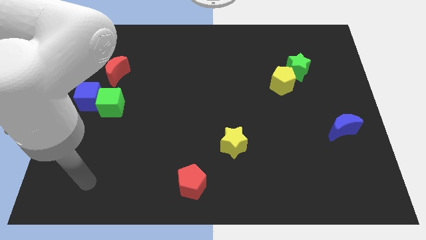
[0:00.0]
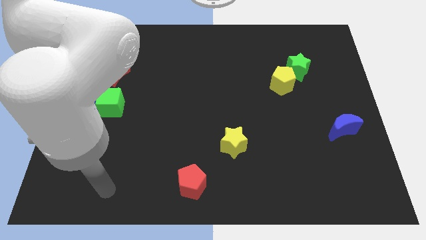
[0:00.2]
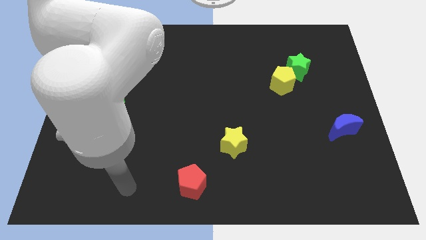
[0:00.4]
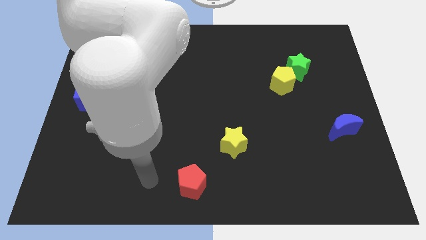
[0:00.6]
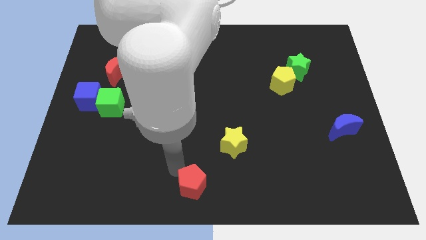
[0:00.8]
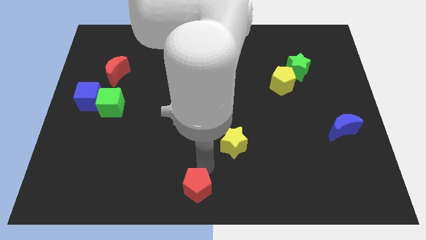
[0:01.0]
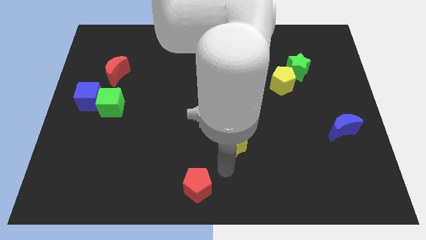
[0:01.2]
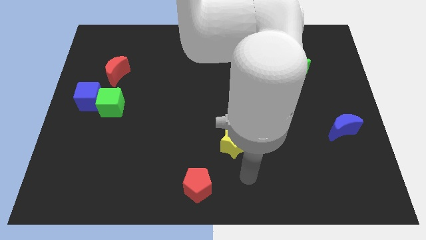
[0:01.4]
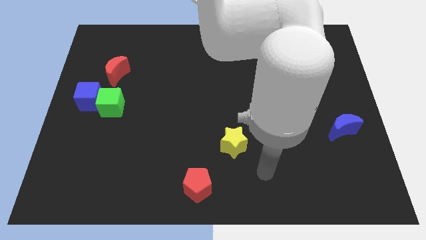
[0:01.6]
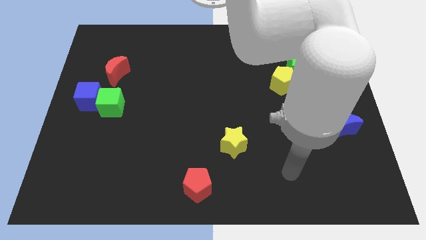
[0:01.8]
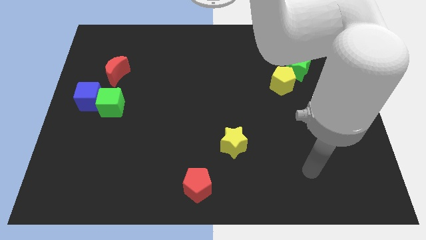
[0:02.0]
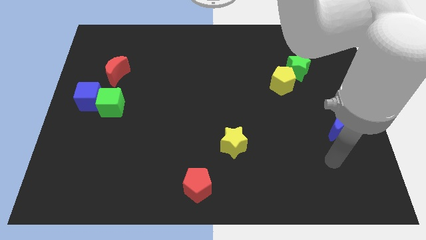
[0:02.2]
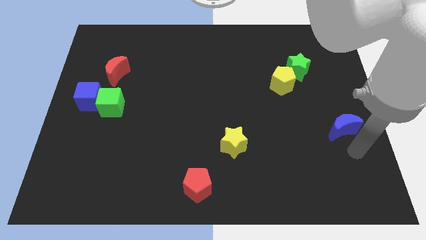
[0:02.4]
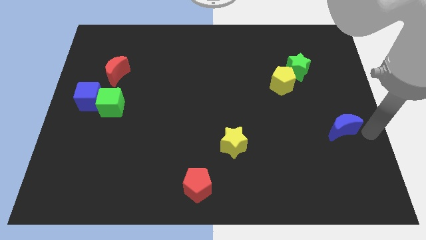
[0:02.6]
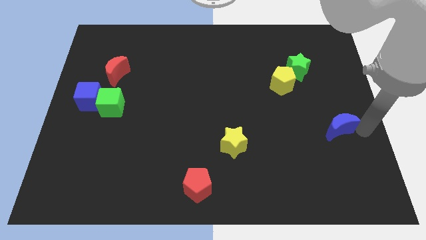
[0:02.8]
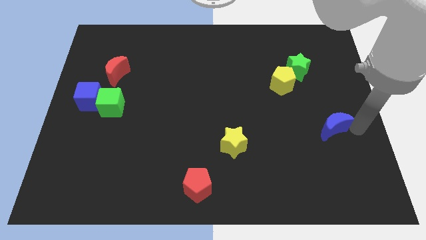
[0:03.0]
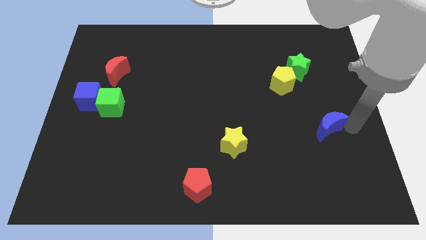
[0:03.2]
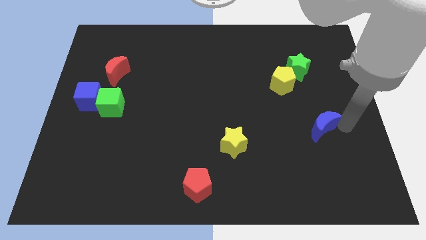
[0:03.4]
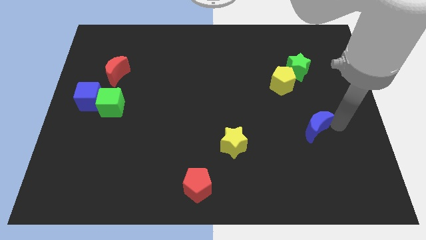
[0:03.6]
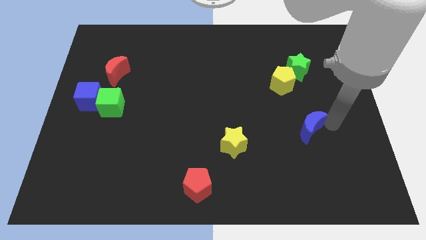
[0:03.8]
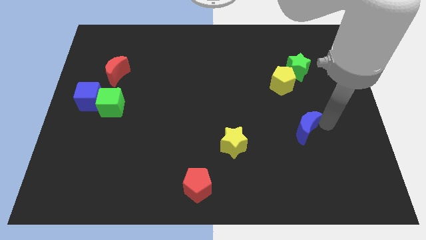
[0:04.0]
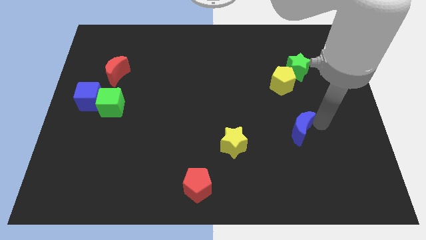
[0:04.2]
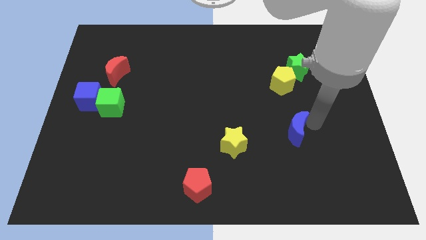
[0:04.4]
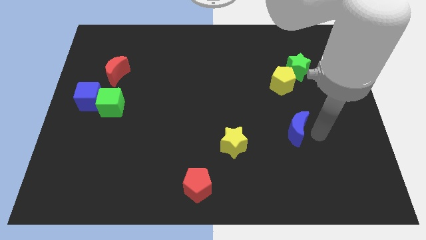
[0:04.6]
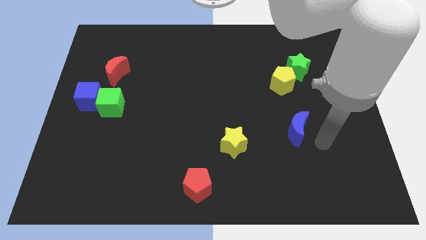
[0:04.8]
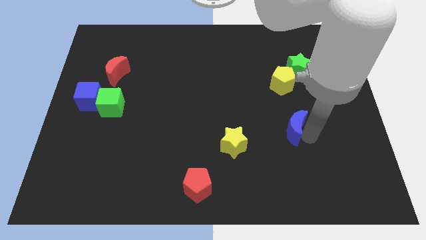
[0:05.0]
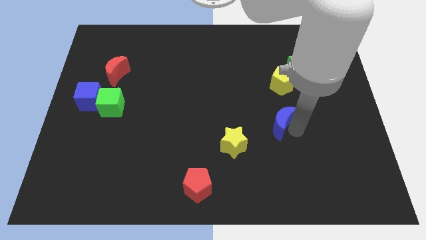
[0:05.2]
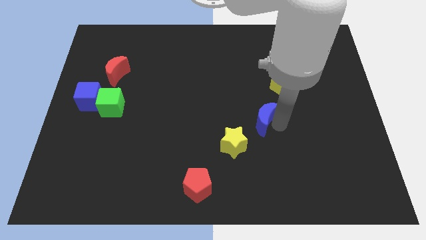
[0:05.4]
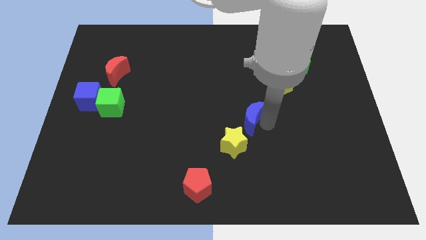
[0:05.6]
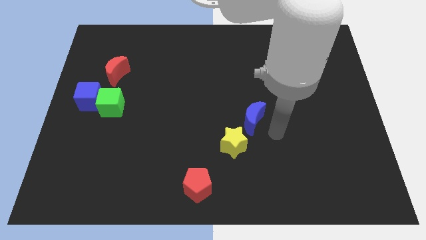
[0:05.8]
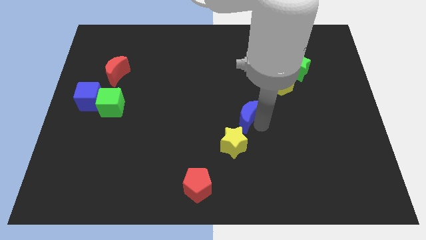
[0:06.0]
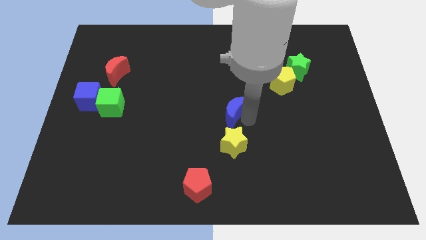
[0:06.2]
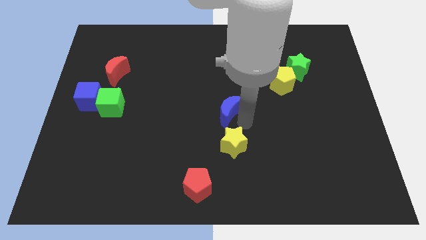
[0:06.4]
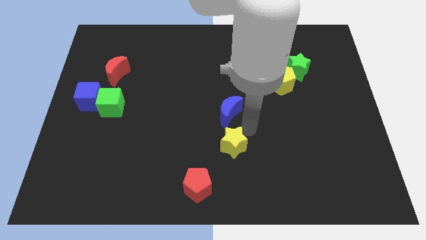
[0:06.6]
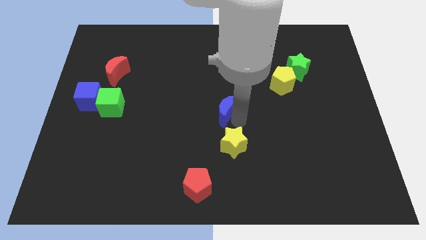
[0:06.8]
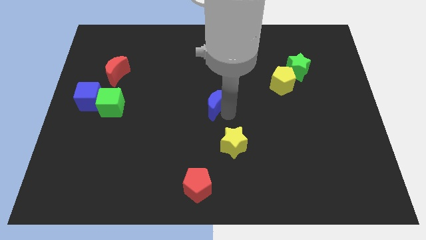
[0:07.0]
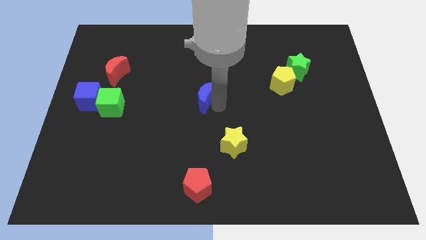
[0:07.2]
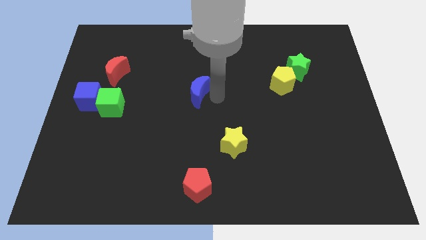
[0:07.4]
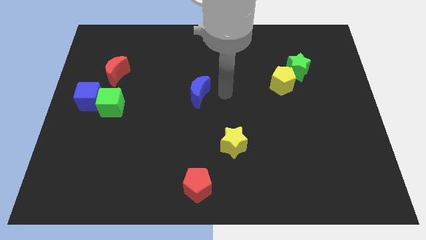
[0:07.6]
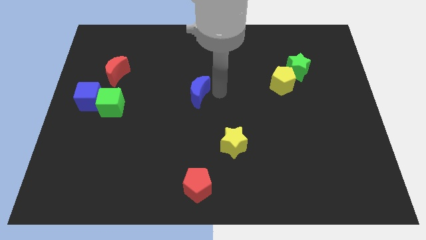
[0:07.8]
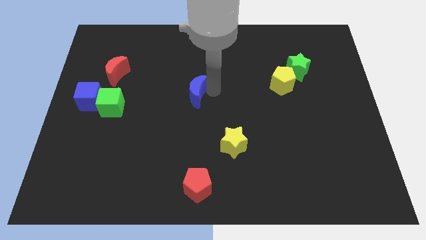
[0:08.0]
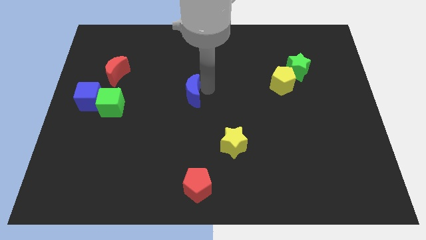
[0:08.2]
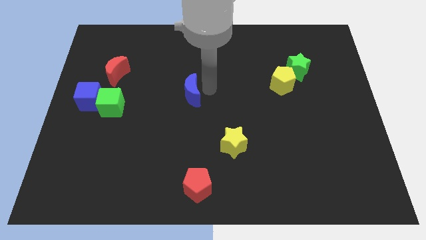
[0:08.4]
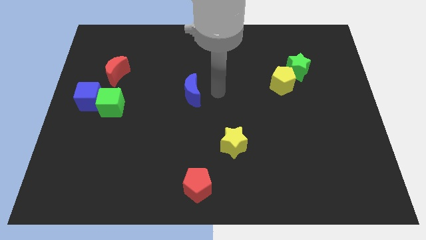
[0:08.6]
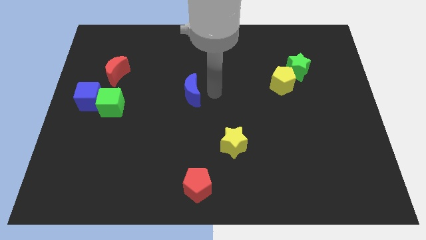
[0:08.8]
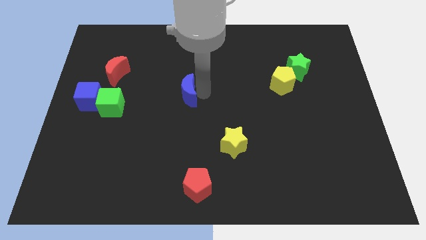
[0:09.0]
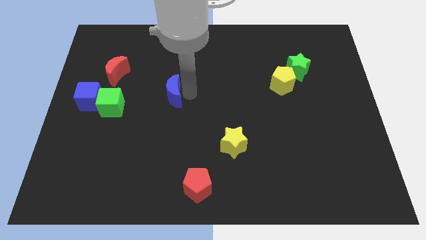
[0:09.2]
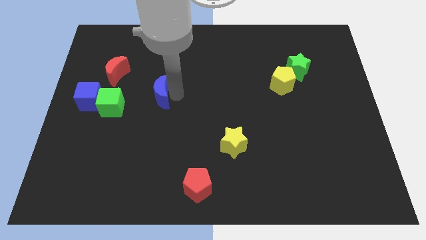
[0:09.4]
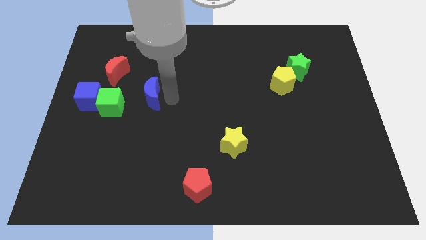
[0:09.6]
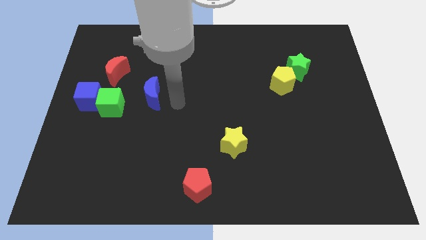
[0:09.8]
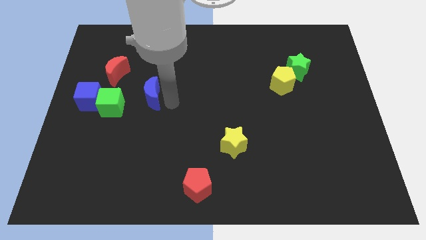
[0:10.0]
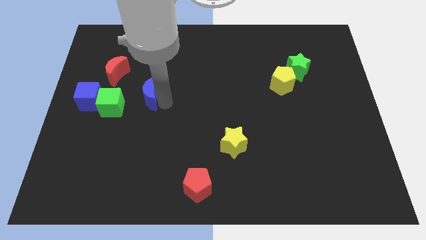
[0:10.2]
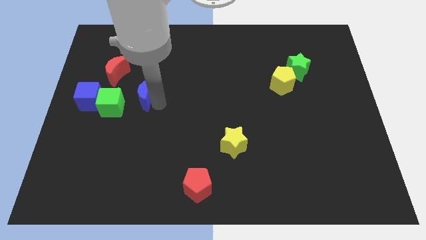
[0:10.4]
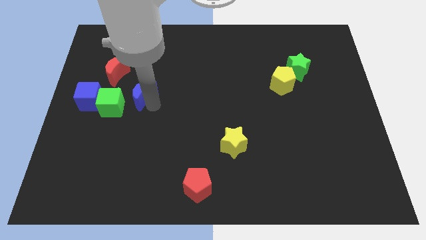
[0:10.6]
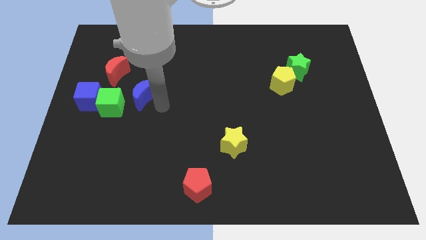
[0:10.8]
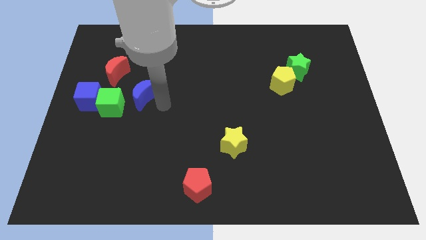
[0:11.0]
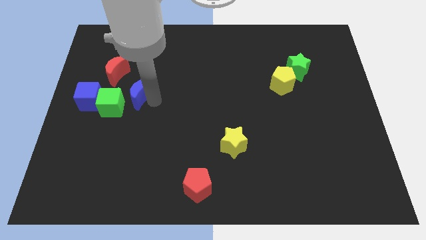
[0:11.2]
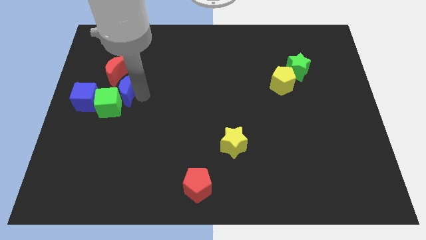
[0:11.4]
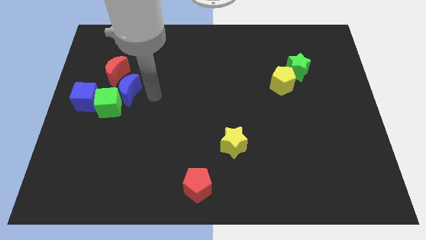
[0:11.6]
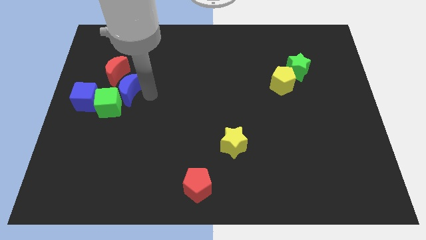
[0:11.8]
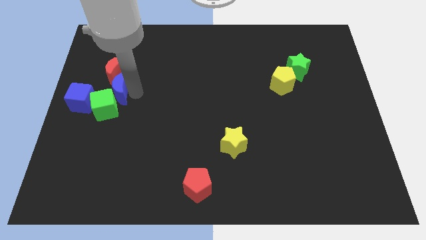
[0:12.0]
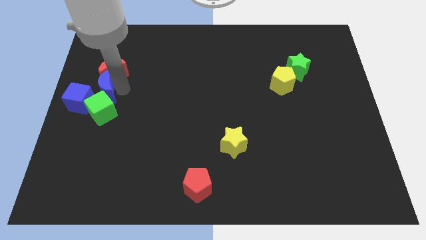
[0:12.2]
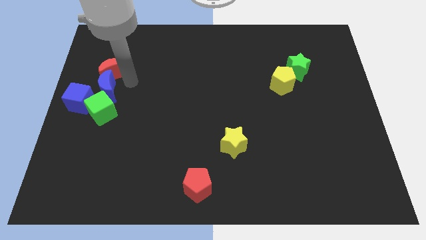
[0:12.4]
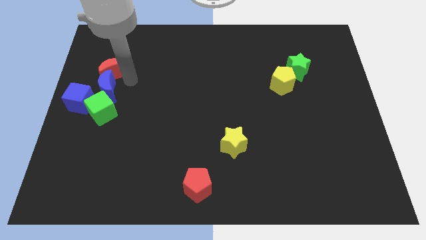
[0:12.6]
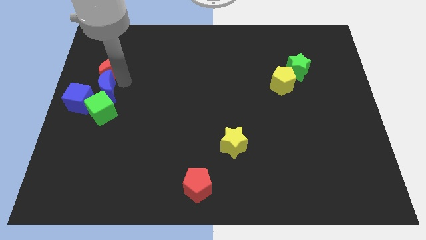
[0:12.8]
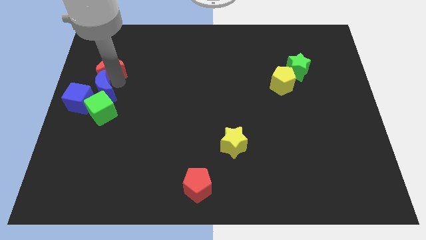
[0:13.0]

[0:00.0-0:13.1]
slide the blue moon next to the blue cube

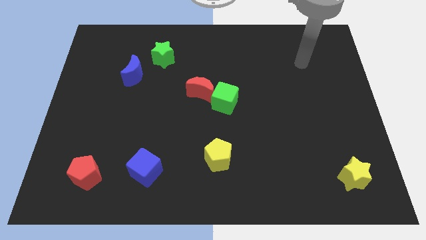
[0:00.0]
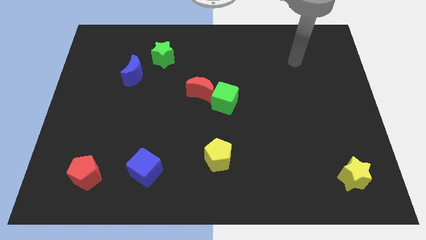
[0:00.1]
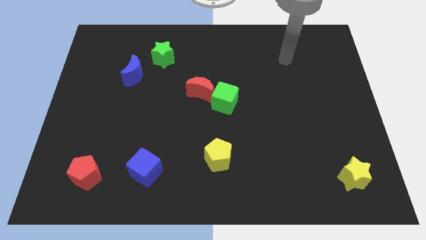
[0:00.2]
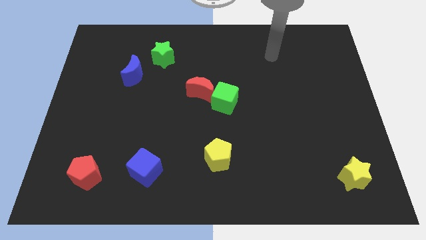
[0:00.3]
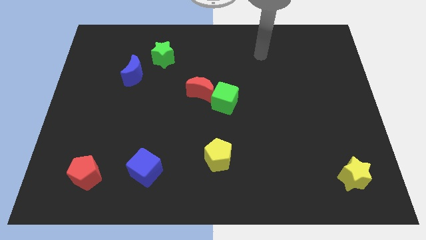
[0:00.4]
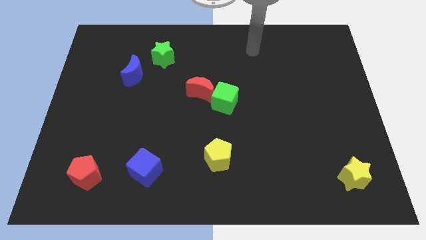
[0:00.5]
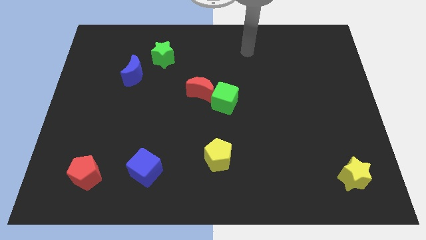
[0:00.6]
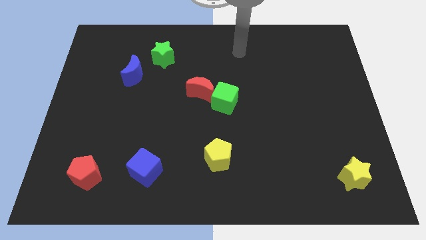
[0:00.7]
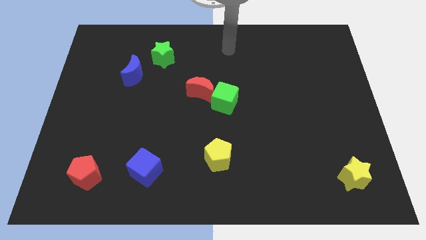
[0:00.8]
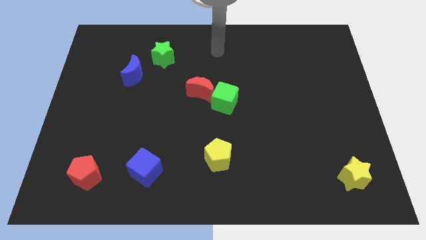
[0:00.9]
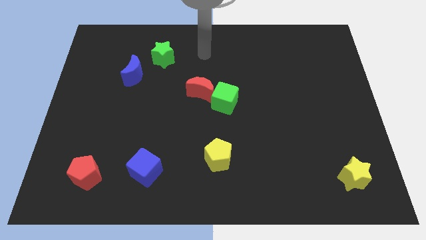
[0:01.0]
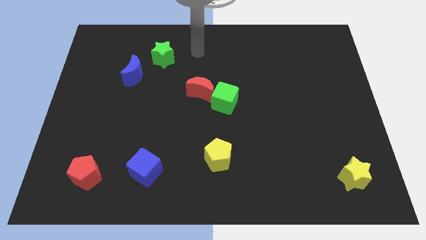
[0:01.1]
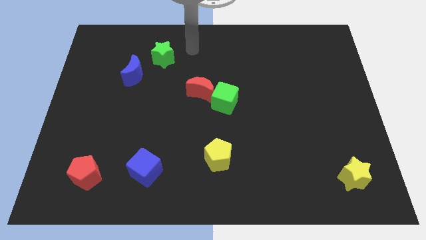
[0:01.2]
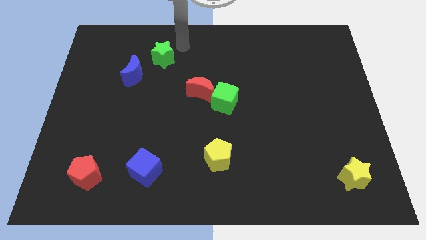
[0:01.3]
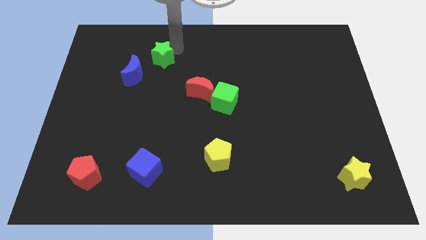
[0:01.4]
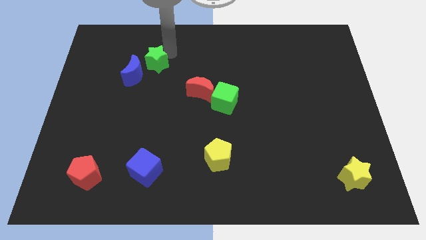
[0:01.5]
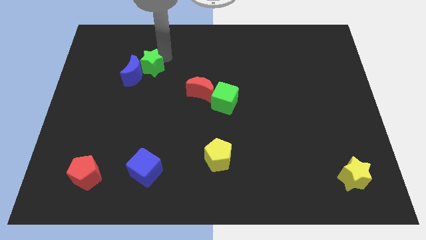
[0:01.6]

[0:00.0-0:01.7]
put the green star next to the blue moon
